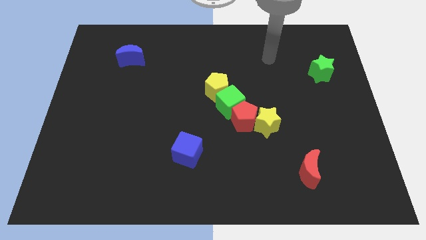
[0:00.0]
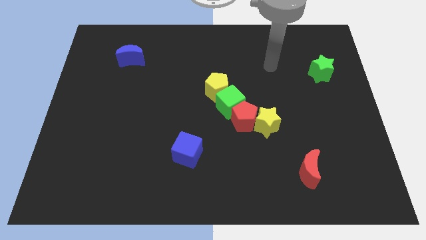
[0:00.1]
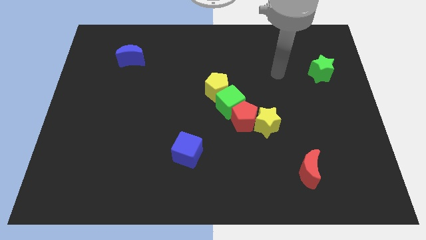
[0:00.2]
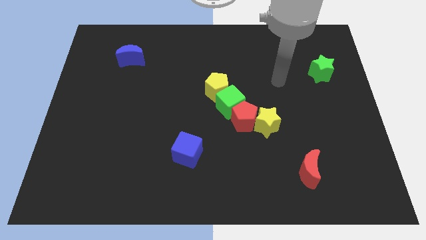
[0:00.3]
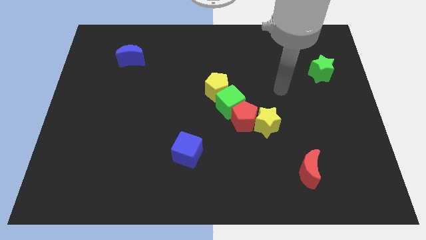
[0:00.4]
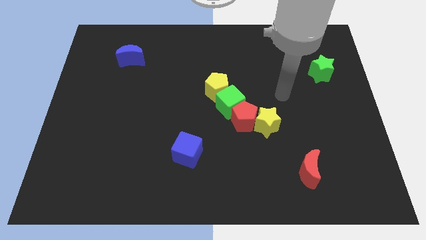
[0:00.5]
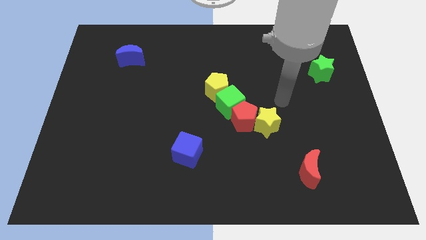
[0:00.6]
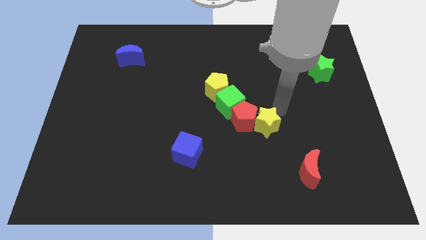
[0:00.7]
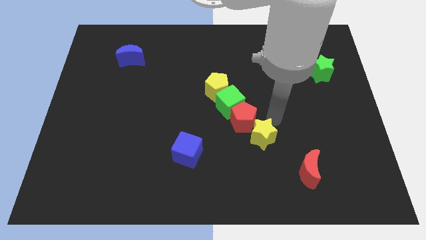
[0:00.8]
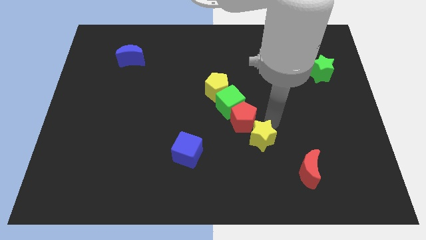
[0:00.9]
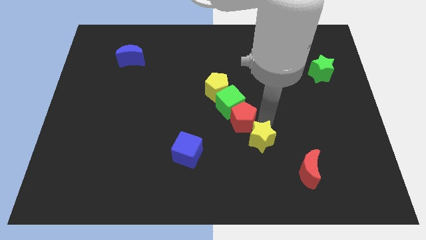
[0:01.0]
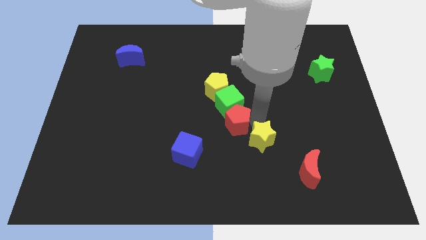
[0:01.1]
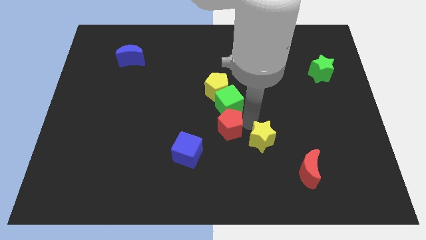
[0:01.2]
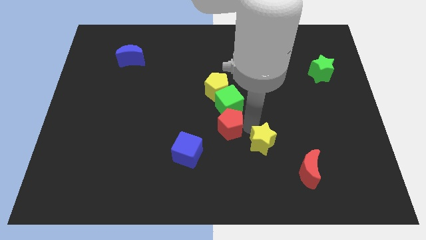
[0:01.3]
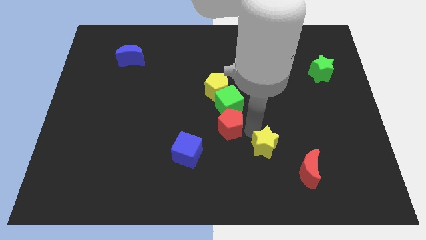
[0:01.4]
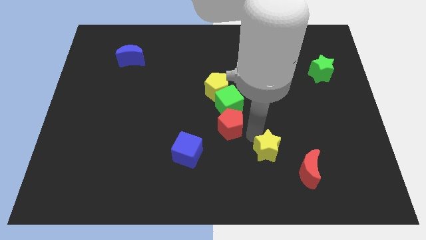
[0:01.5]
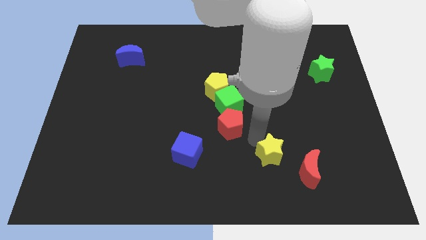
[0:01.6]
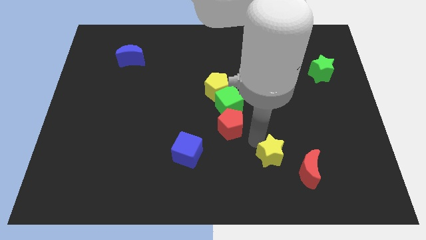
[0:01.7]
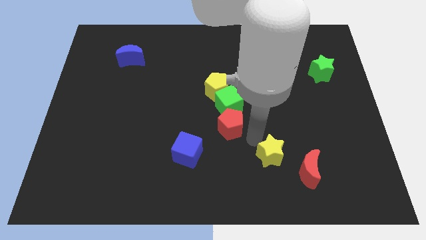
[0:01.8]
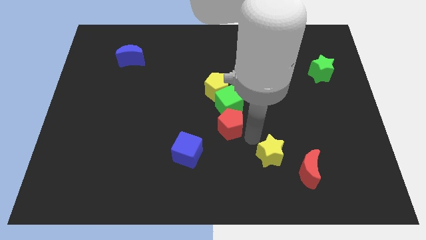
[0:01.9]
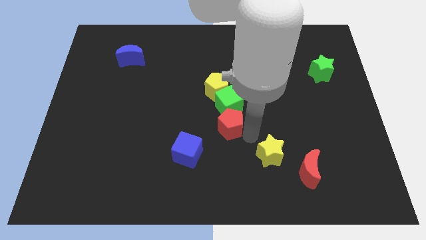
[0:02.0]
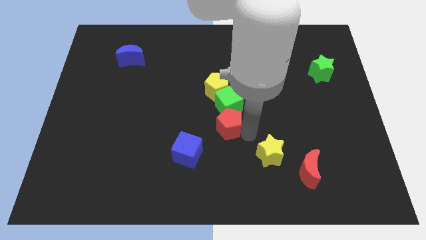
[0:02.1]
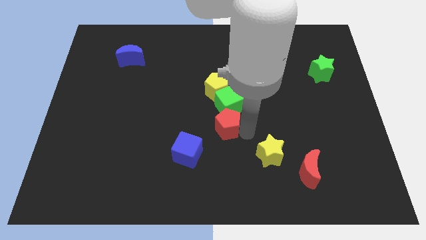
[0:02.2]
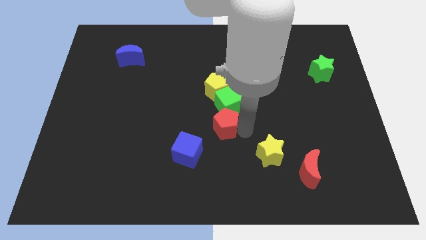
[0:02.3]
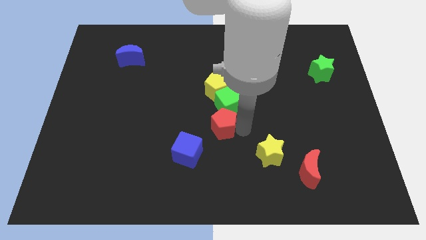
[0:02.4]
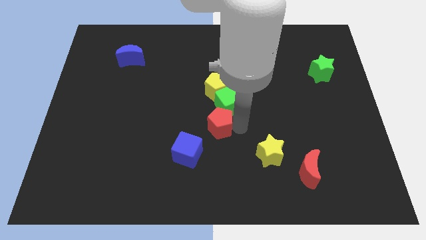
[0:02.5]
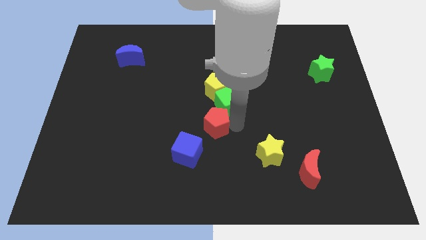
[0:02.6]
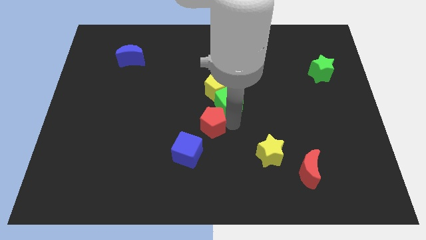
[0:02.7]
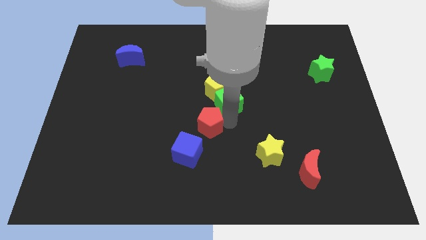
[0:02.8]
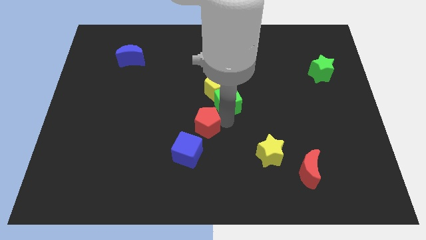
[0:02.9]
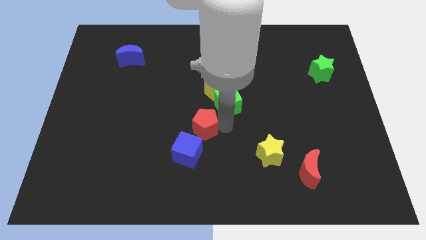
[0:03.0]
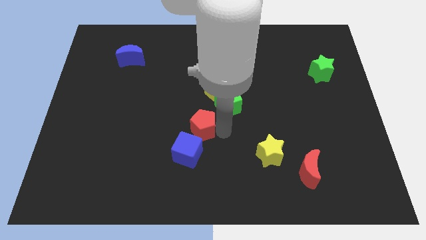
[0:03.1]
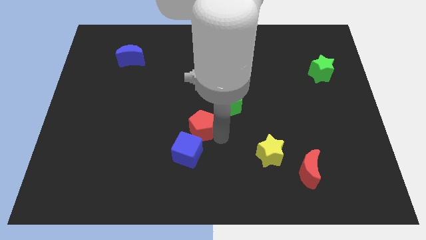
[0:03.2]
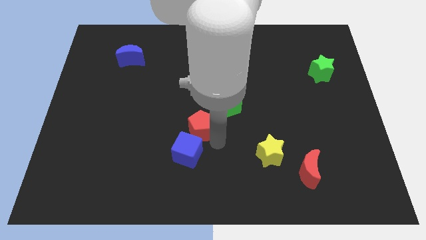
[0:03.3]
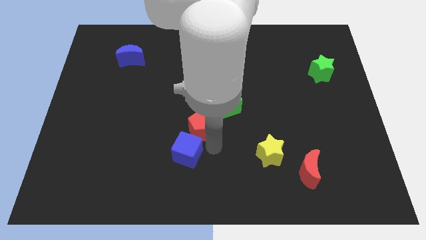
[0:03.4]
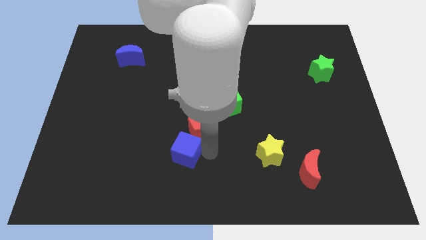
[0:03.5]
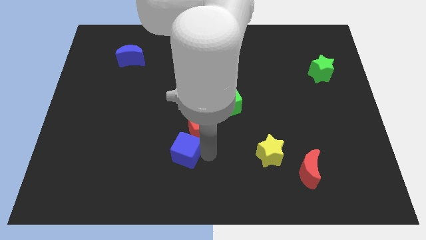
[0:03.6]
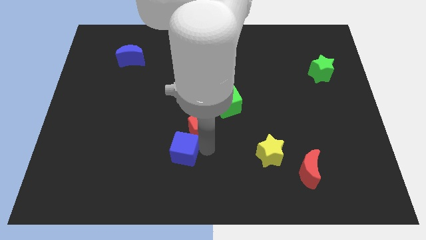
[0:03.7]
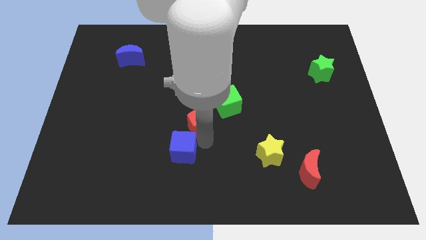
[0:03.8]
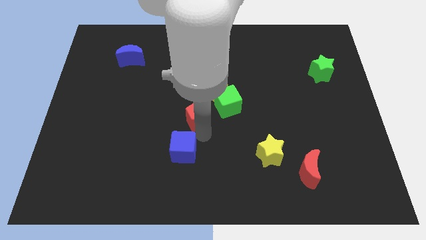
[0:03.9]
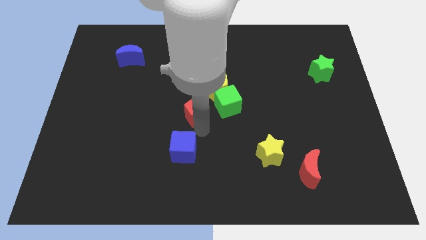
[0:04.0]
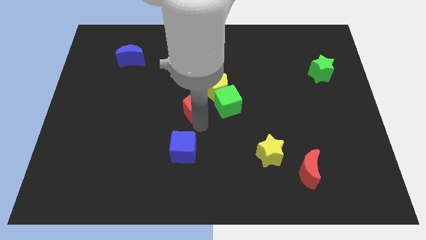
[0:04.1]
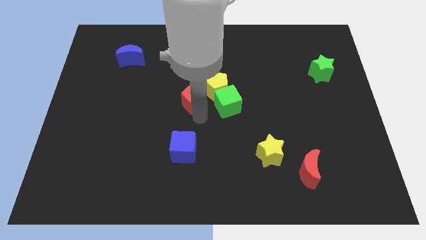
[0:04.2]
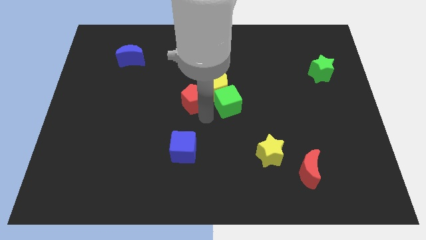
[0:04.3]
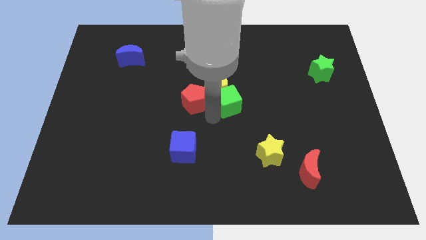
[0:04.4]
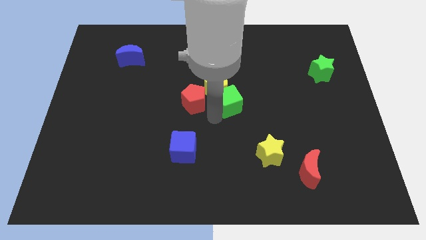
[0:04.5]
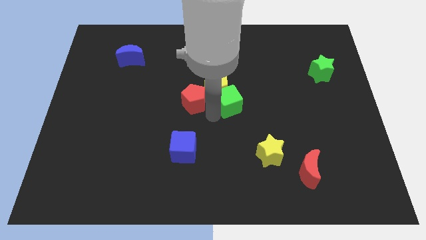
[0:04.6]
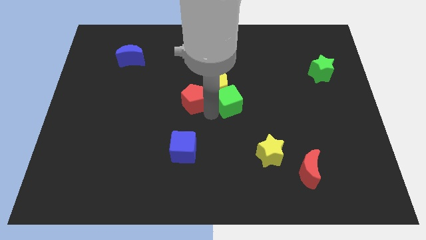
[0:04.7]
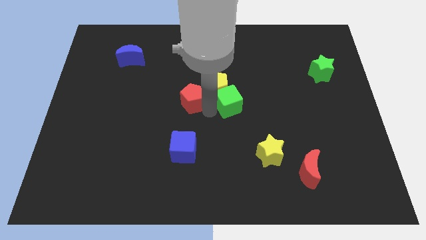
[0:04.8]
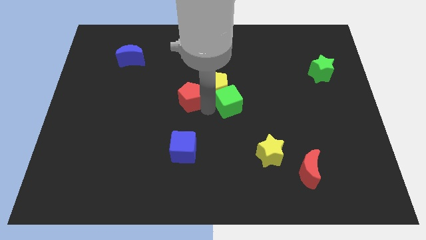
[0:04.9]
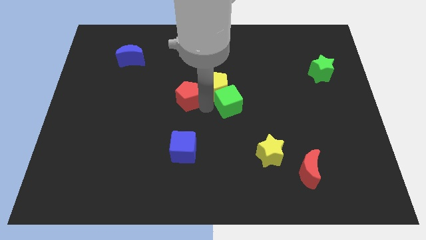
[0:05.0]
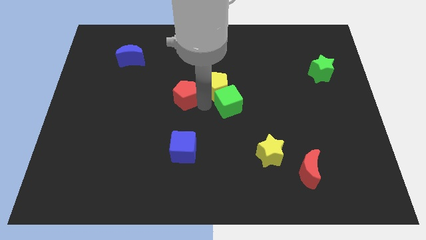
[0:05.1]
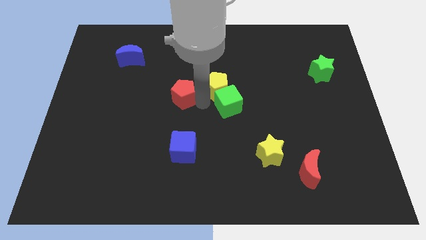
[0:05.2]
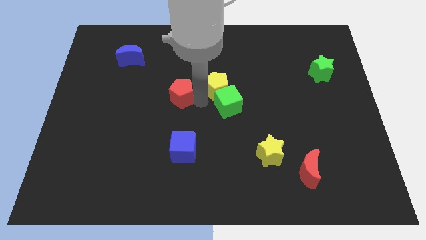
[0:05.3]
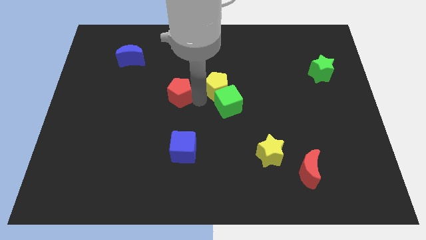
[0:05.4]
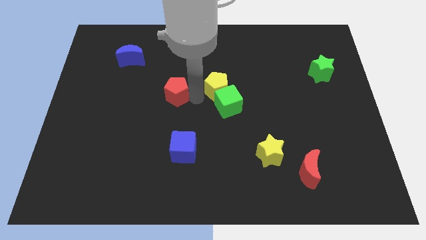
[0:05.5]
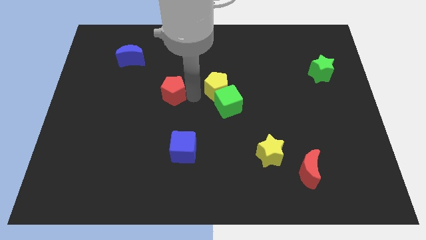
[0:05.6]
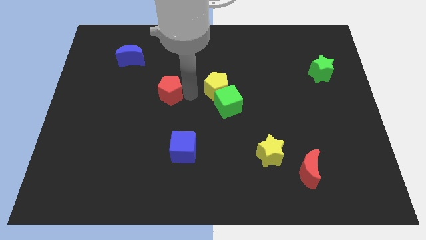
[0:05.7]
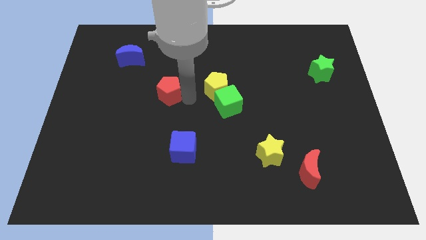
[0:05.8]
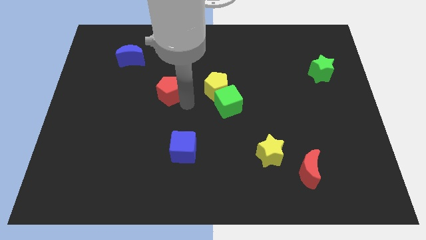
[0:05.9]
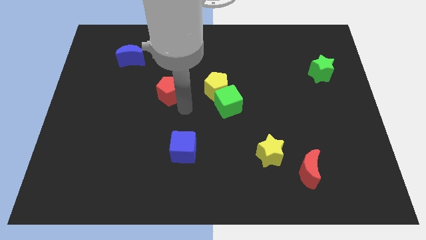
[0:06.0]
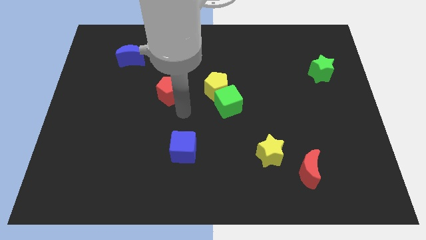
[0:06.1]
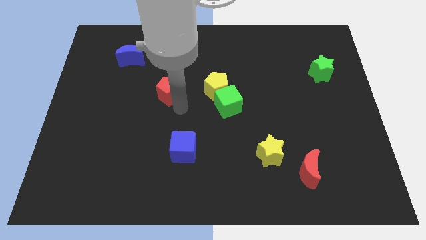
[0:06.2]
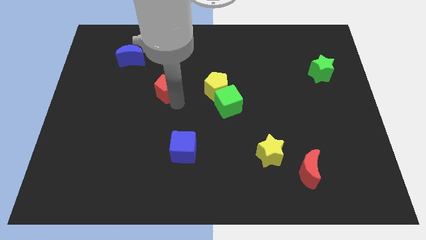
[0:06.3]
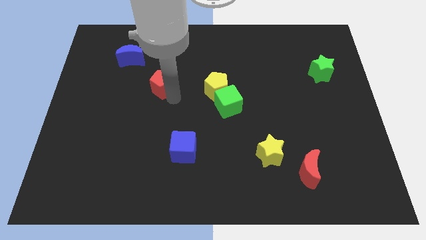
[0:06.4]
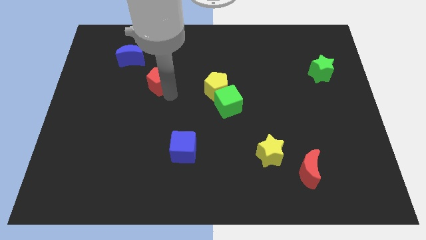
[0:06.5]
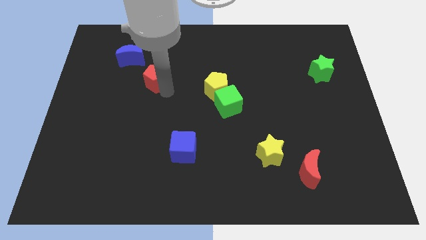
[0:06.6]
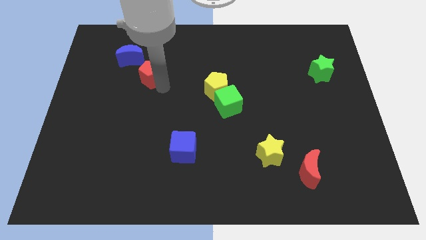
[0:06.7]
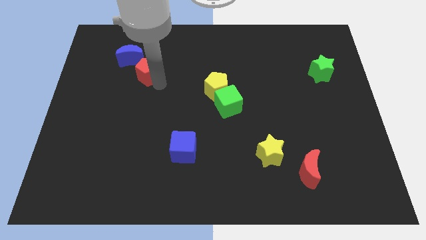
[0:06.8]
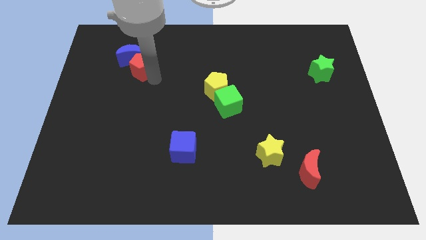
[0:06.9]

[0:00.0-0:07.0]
put the red pentagon next to the blue moon
